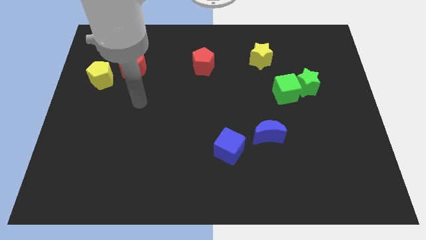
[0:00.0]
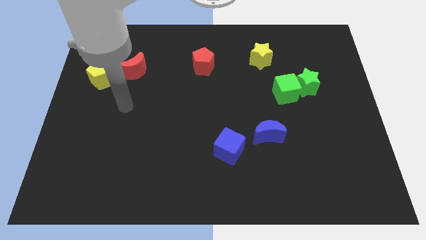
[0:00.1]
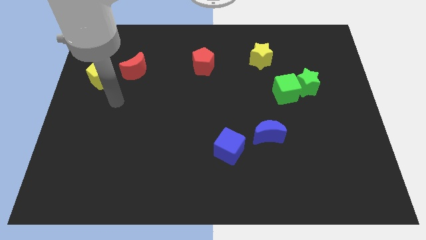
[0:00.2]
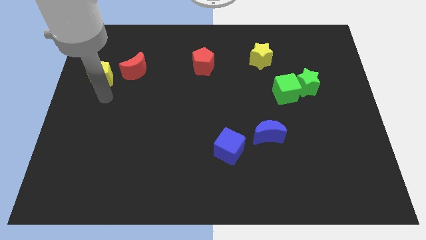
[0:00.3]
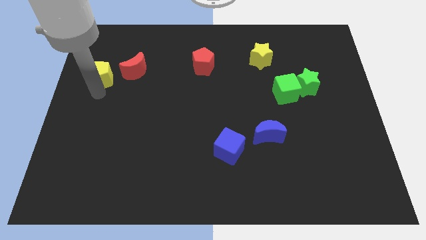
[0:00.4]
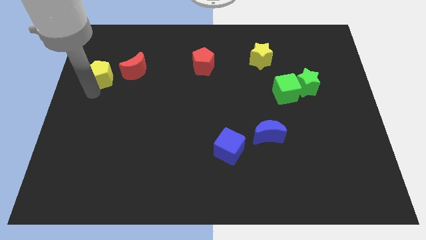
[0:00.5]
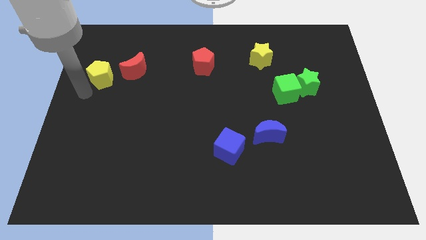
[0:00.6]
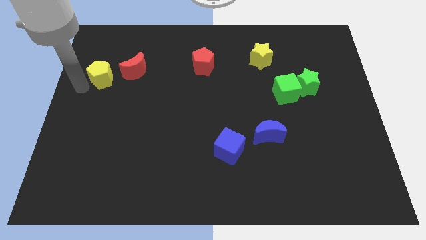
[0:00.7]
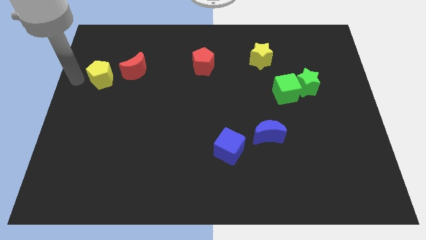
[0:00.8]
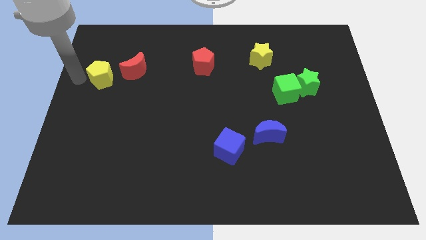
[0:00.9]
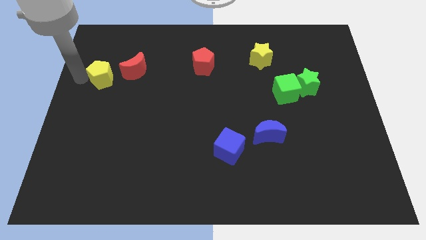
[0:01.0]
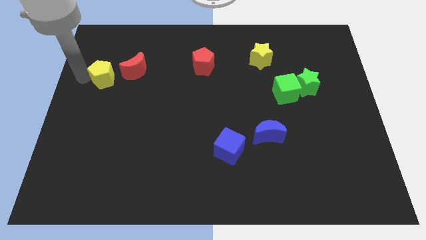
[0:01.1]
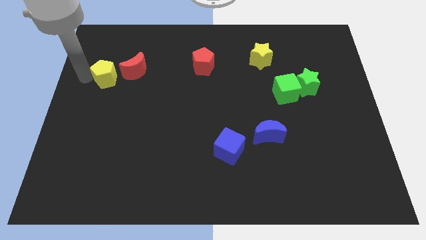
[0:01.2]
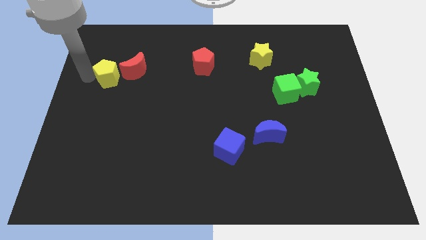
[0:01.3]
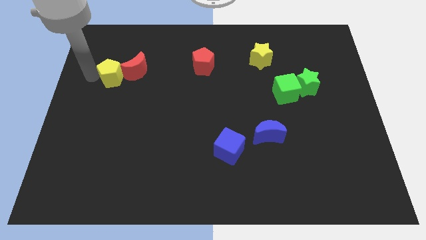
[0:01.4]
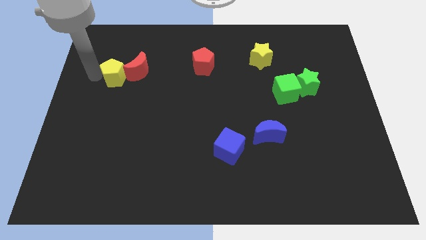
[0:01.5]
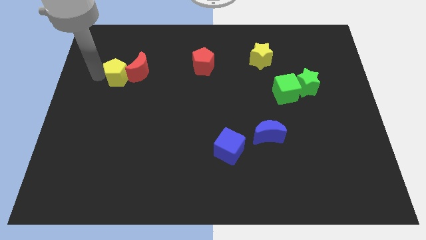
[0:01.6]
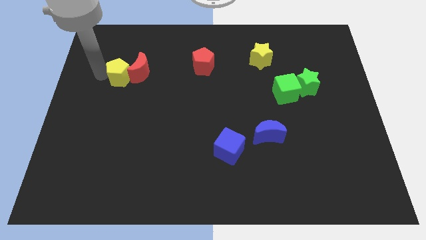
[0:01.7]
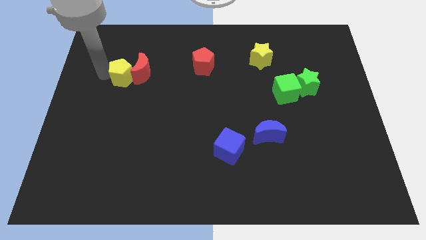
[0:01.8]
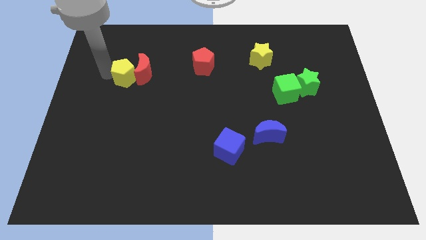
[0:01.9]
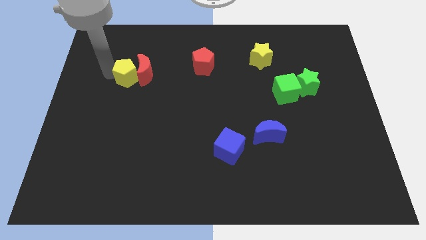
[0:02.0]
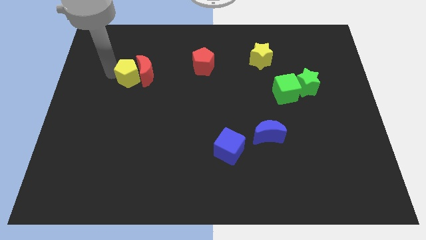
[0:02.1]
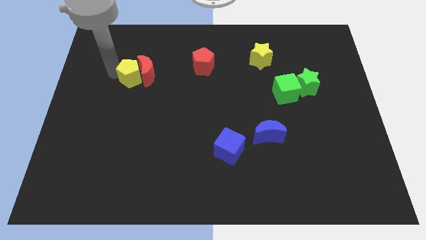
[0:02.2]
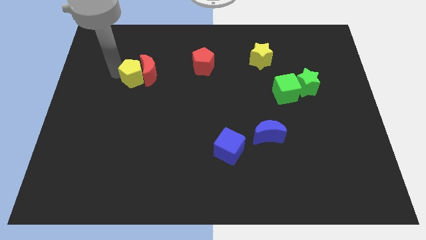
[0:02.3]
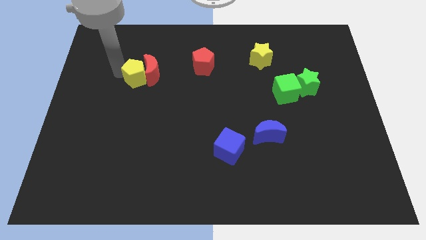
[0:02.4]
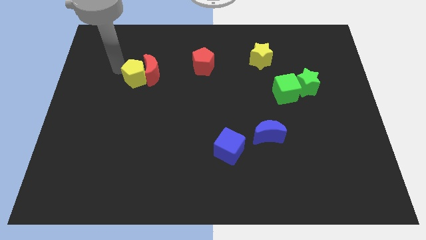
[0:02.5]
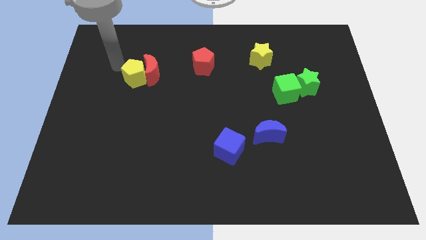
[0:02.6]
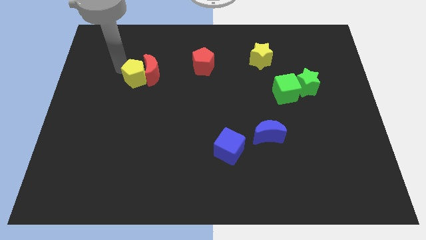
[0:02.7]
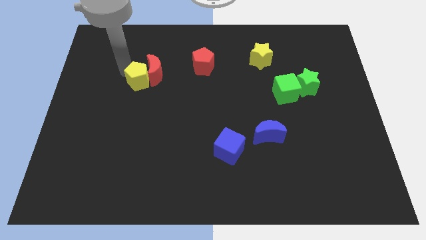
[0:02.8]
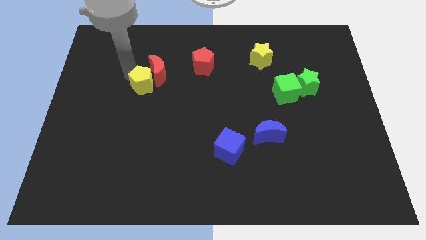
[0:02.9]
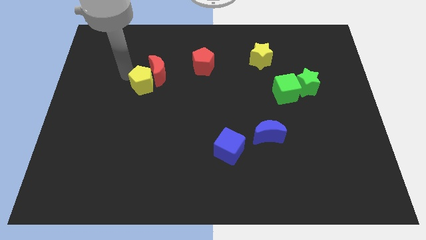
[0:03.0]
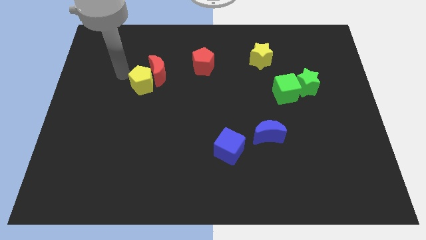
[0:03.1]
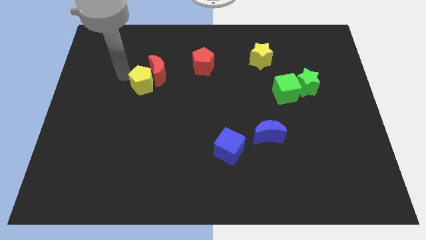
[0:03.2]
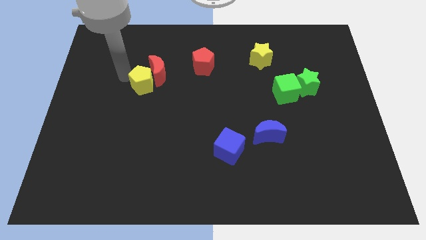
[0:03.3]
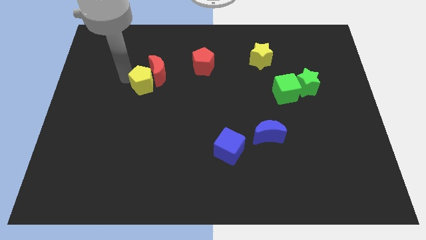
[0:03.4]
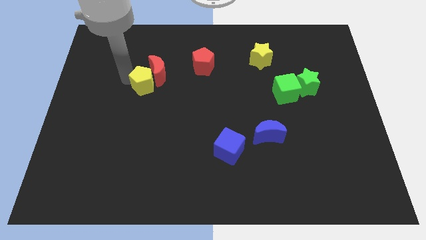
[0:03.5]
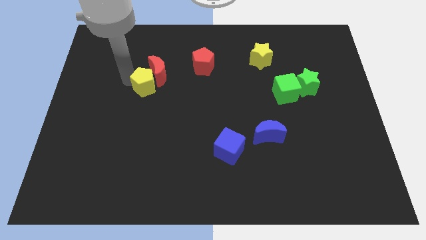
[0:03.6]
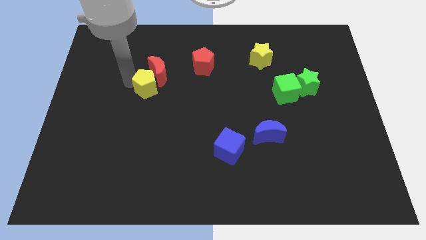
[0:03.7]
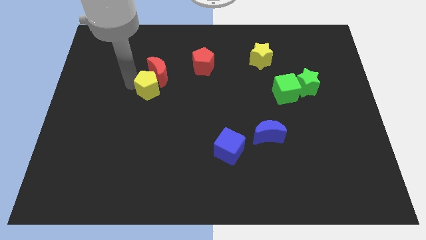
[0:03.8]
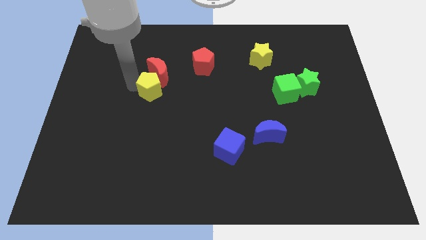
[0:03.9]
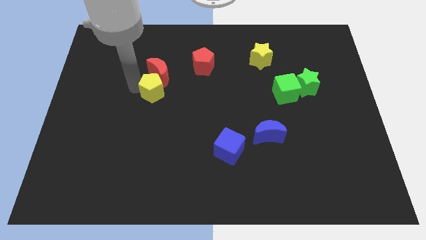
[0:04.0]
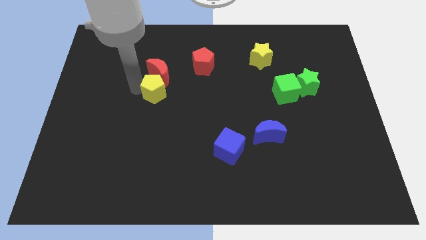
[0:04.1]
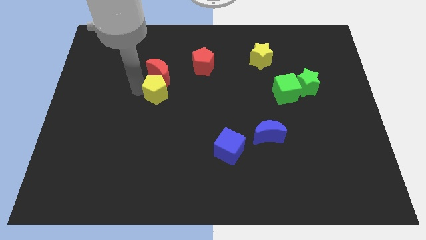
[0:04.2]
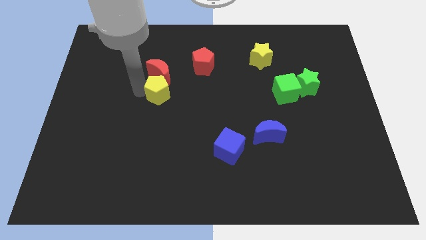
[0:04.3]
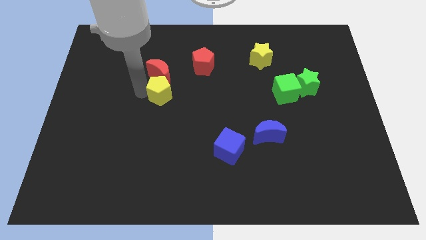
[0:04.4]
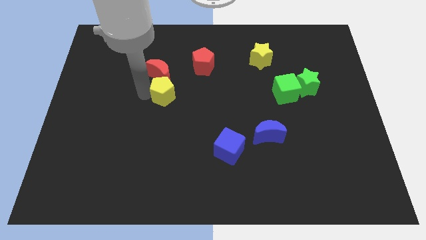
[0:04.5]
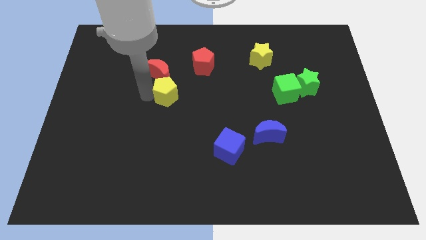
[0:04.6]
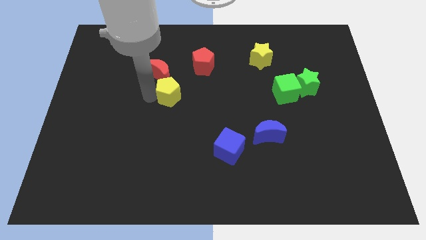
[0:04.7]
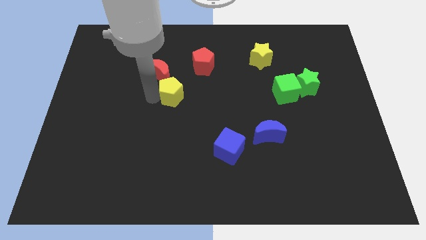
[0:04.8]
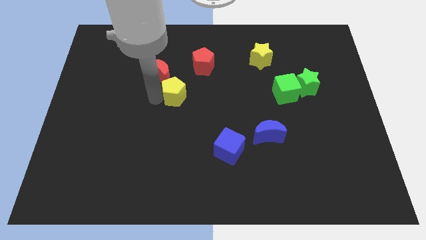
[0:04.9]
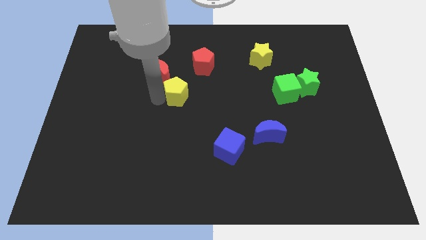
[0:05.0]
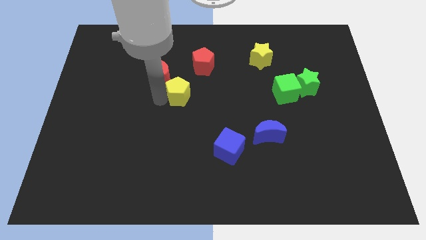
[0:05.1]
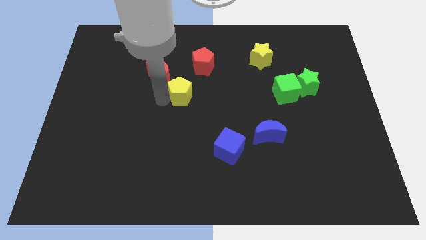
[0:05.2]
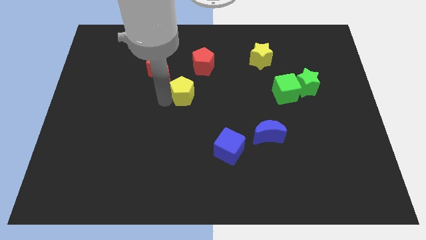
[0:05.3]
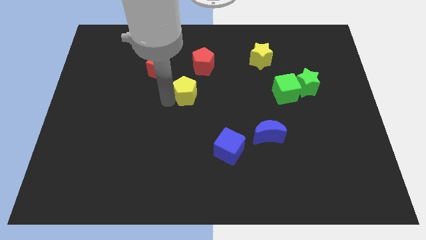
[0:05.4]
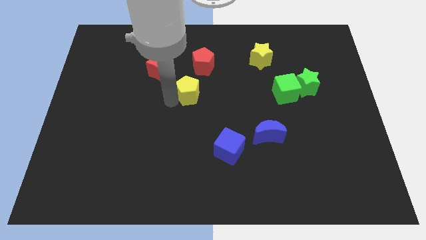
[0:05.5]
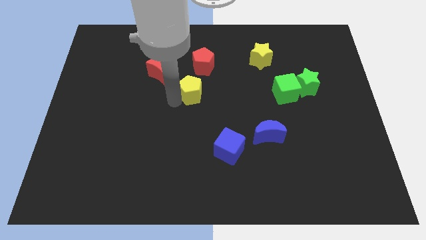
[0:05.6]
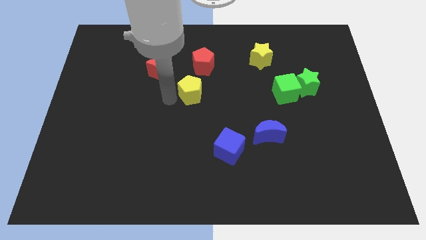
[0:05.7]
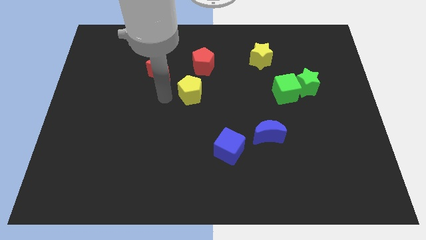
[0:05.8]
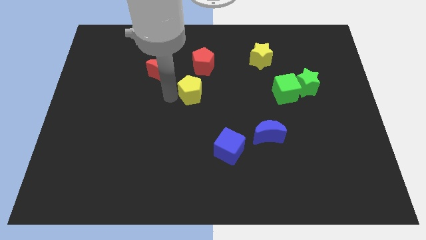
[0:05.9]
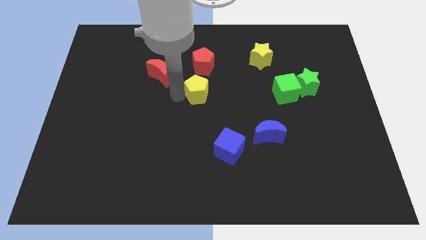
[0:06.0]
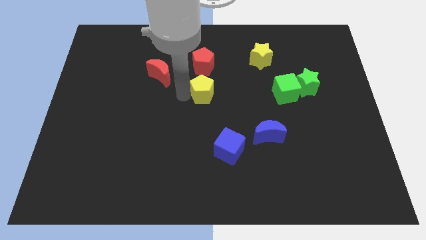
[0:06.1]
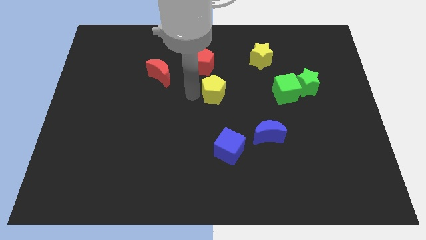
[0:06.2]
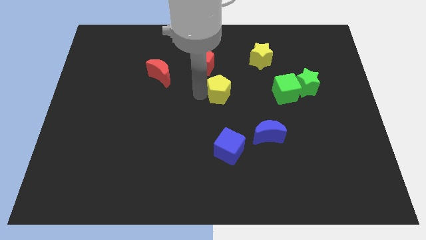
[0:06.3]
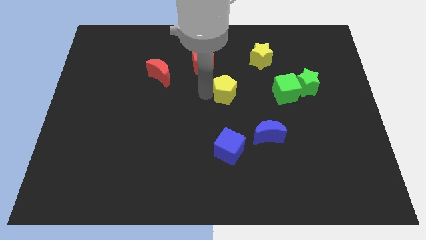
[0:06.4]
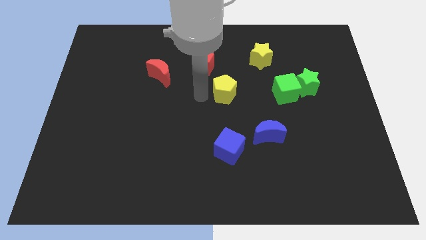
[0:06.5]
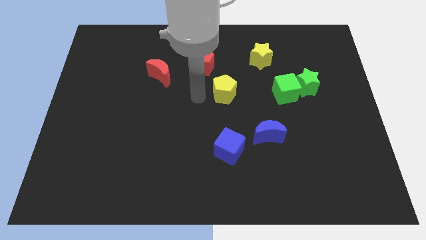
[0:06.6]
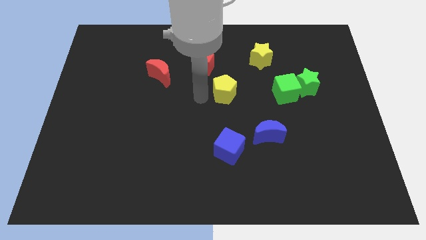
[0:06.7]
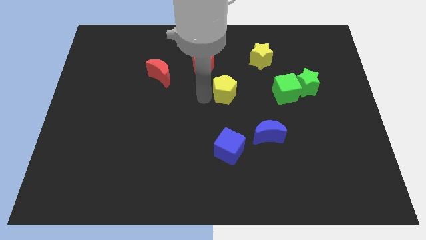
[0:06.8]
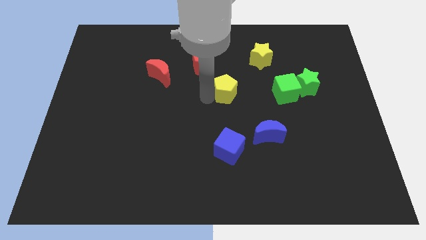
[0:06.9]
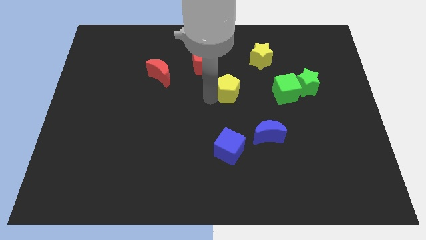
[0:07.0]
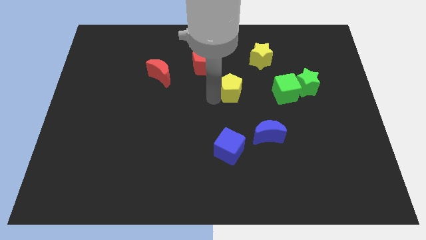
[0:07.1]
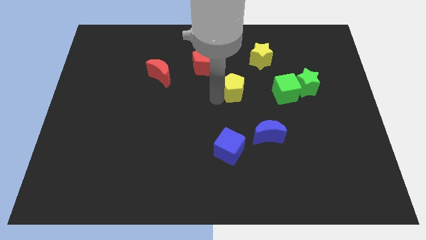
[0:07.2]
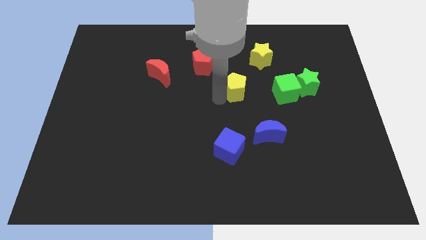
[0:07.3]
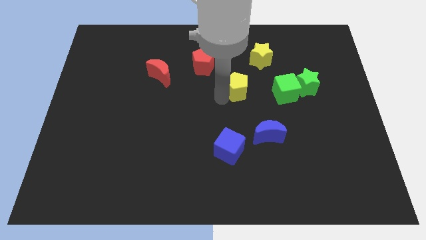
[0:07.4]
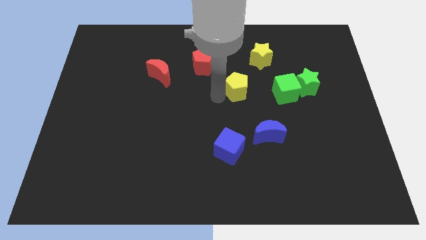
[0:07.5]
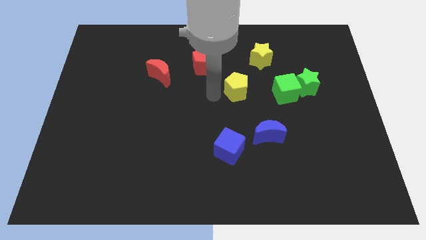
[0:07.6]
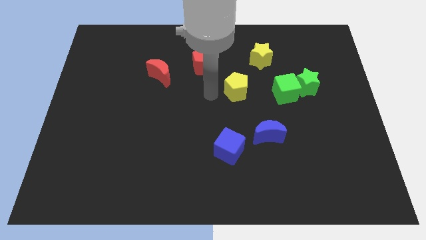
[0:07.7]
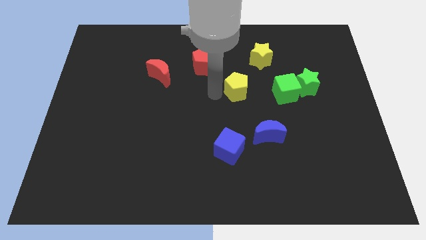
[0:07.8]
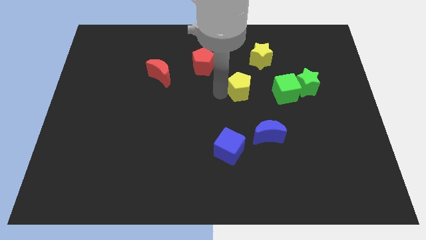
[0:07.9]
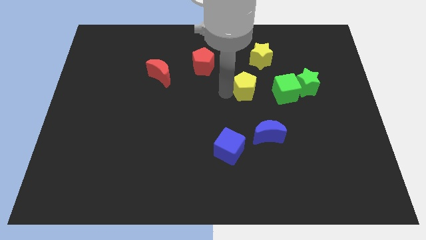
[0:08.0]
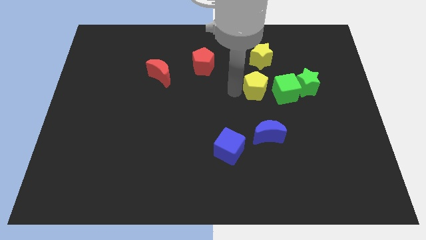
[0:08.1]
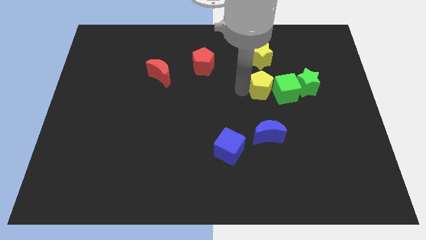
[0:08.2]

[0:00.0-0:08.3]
push the yellow pentagon to the green cube
